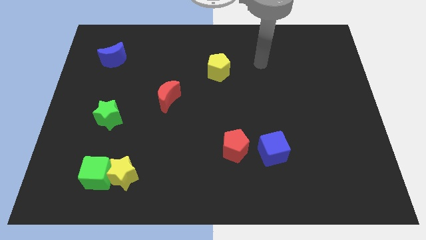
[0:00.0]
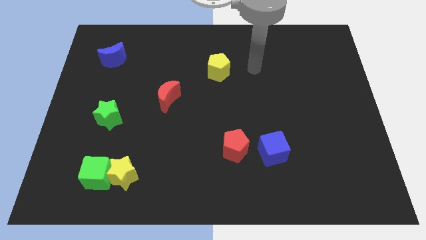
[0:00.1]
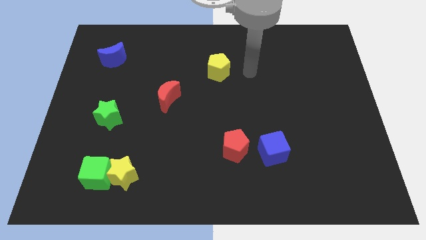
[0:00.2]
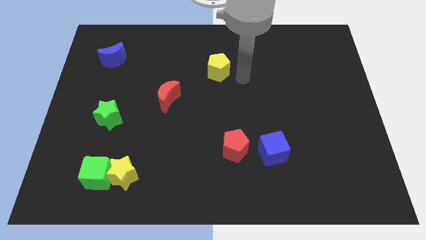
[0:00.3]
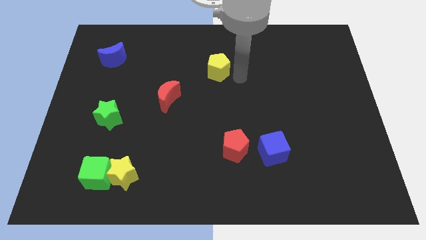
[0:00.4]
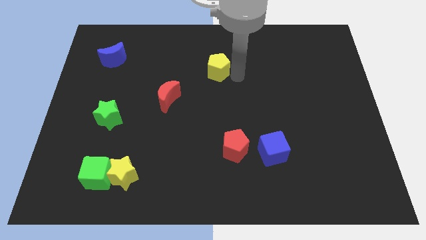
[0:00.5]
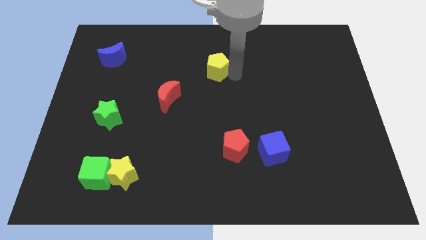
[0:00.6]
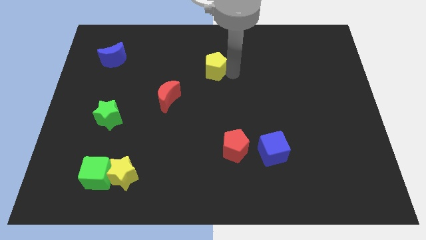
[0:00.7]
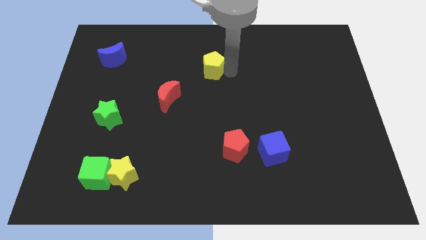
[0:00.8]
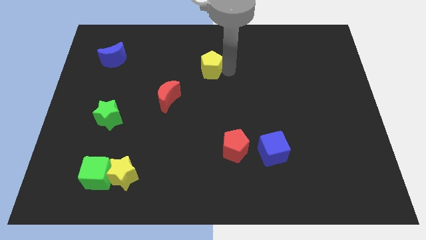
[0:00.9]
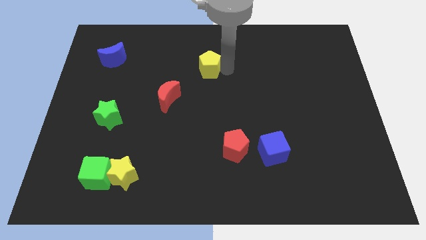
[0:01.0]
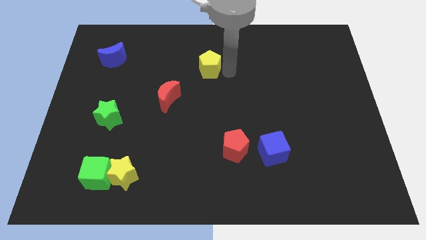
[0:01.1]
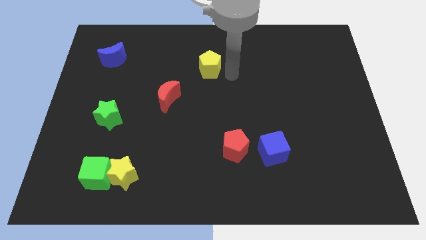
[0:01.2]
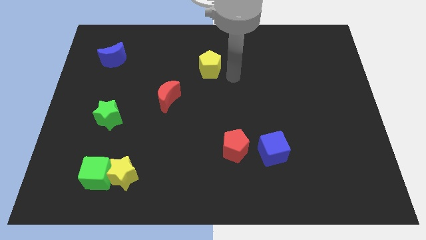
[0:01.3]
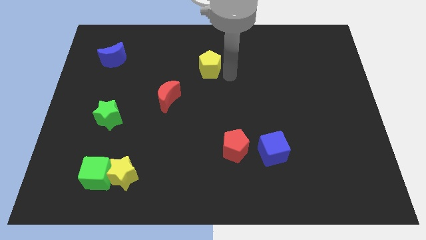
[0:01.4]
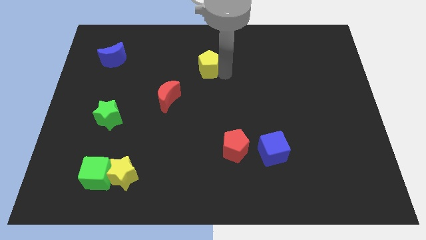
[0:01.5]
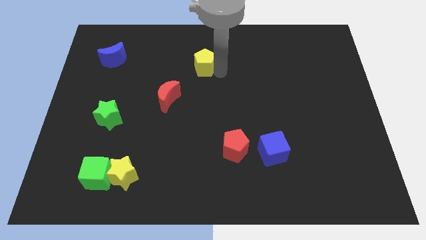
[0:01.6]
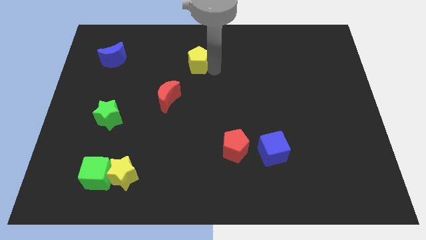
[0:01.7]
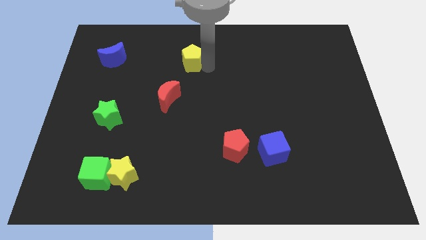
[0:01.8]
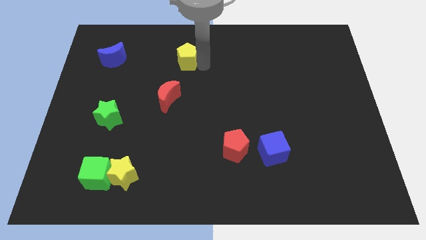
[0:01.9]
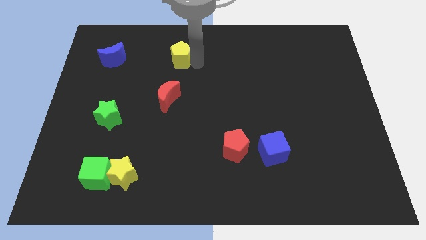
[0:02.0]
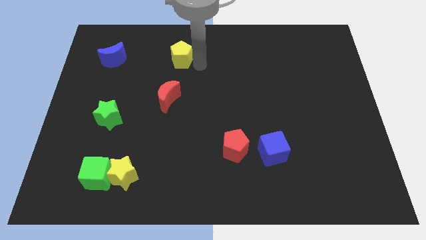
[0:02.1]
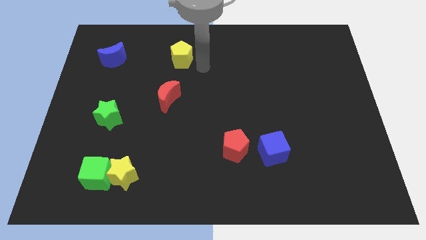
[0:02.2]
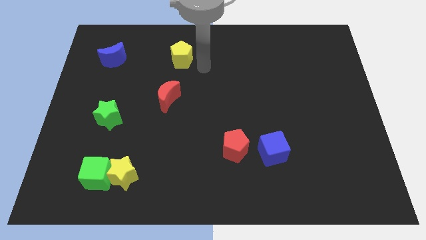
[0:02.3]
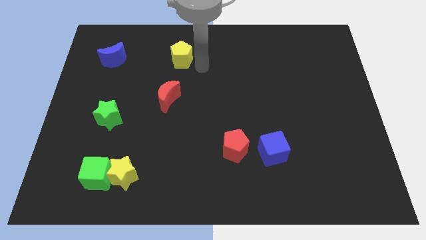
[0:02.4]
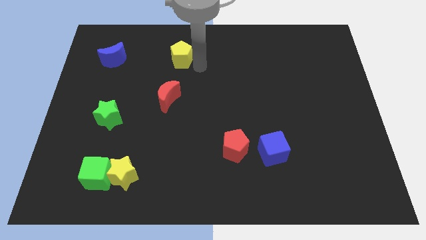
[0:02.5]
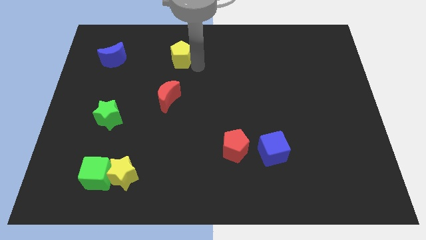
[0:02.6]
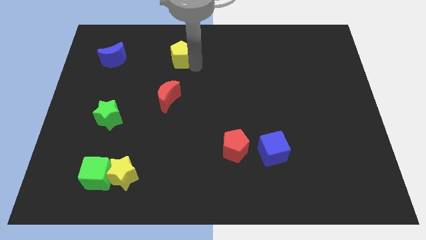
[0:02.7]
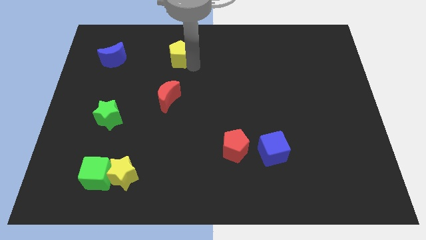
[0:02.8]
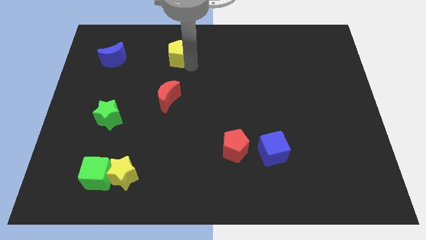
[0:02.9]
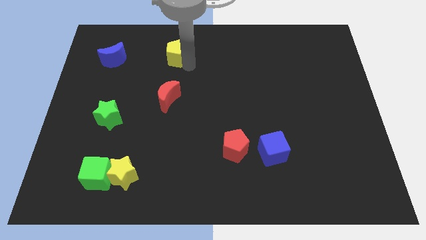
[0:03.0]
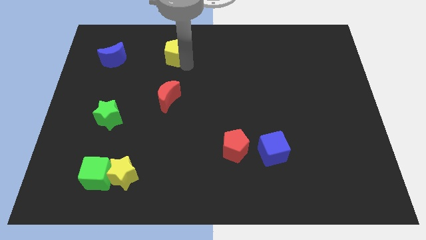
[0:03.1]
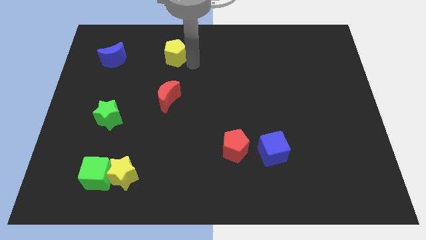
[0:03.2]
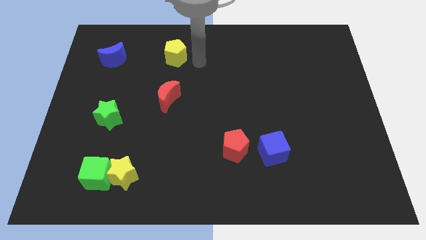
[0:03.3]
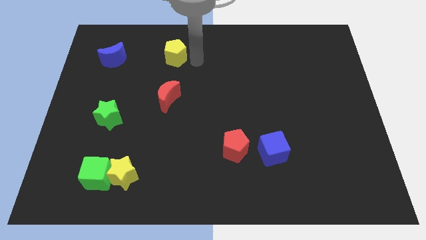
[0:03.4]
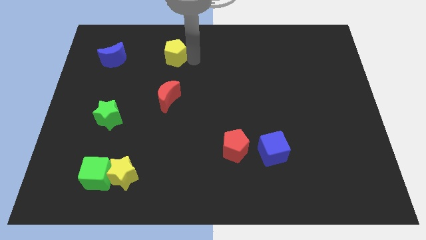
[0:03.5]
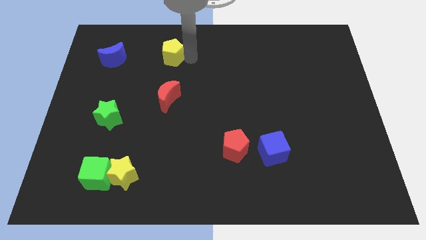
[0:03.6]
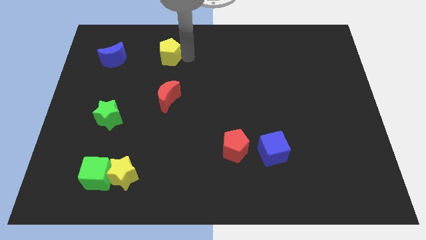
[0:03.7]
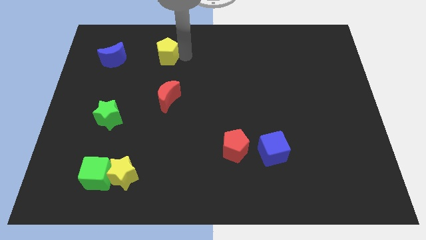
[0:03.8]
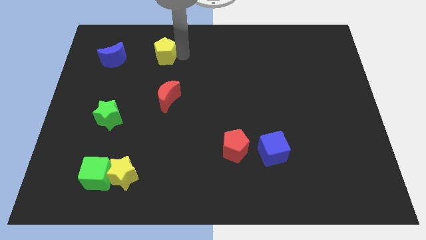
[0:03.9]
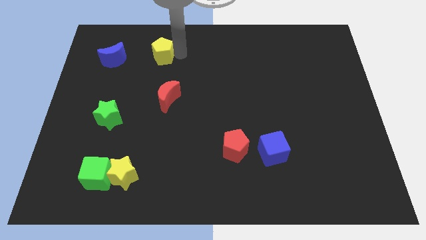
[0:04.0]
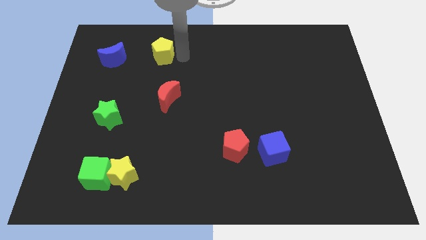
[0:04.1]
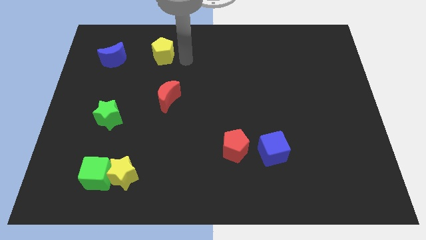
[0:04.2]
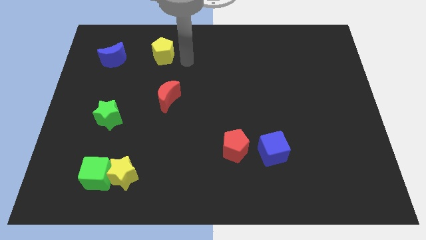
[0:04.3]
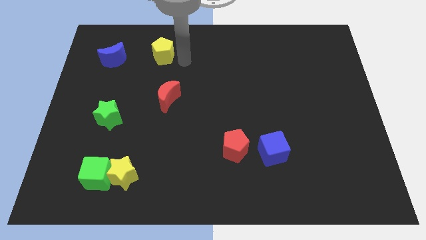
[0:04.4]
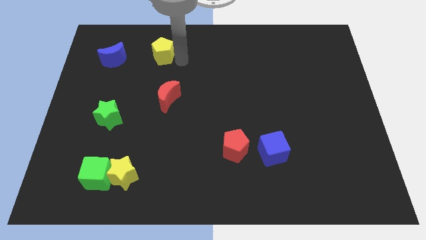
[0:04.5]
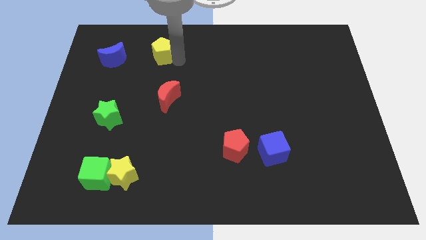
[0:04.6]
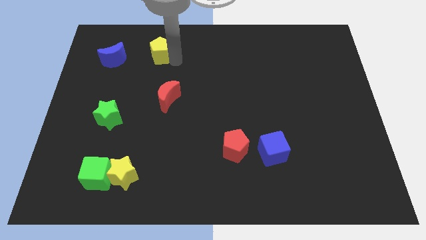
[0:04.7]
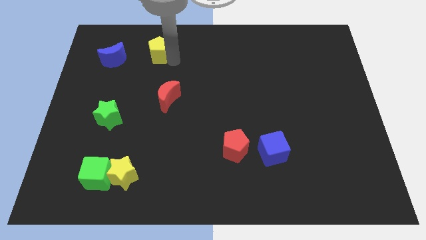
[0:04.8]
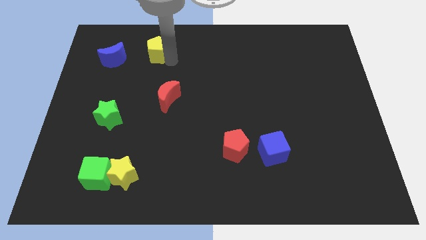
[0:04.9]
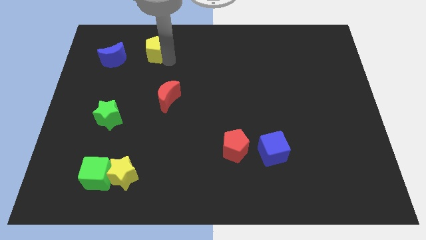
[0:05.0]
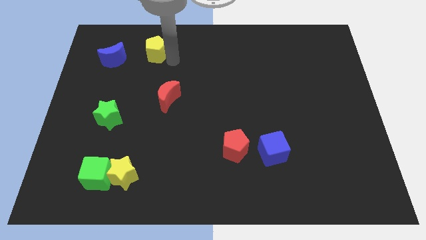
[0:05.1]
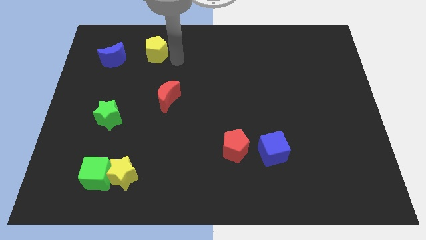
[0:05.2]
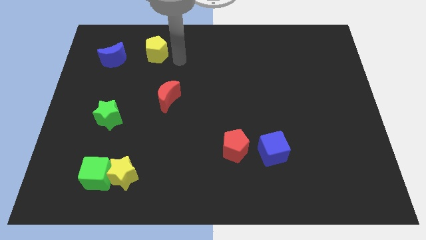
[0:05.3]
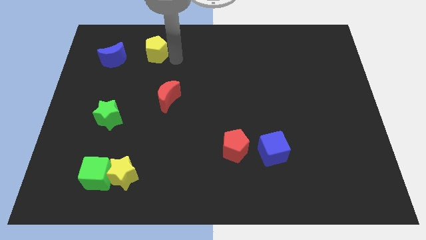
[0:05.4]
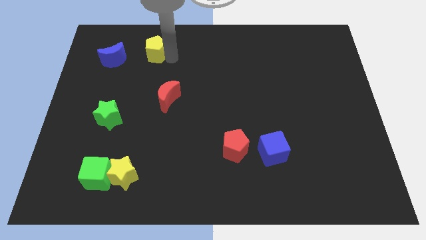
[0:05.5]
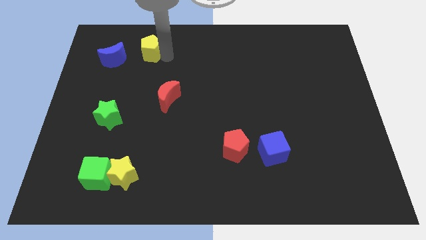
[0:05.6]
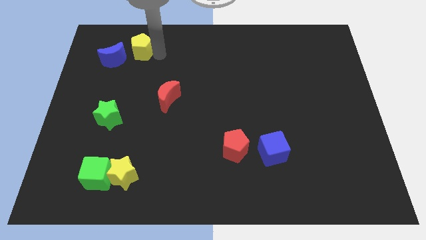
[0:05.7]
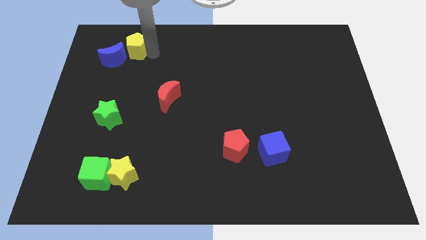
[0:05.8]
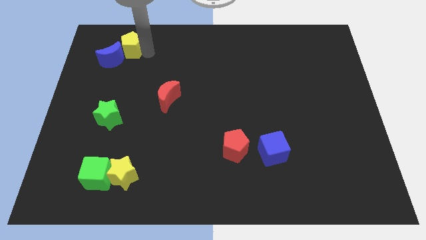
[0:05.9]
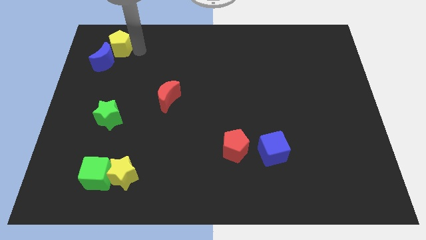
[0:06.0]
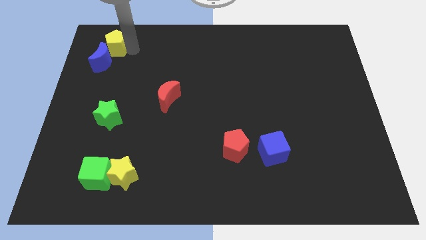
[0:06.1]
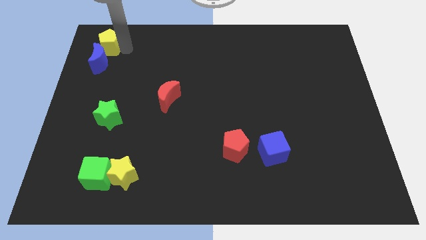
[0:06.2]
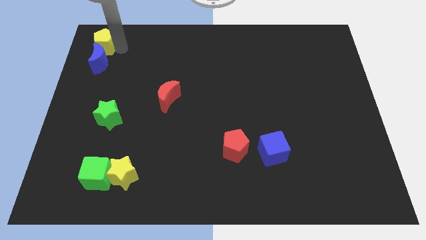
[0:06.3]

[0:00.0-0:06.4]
slide the yellow pentagon to the top left of the board

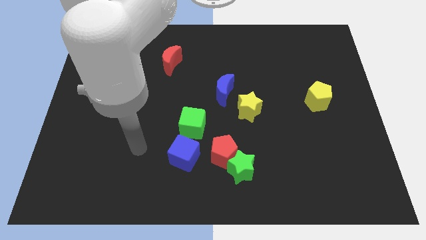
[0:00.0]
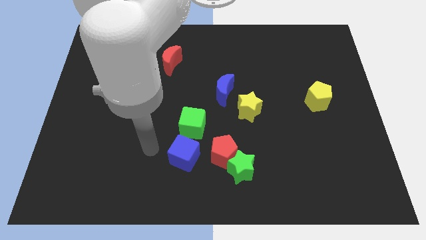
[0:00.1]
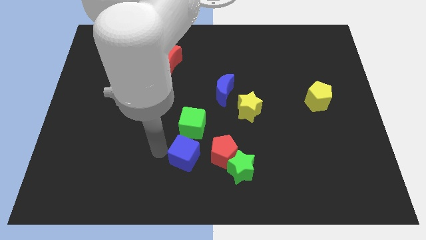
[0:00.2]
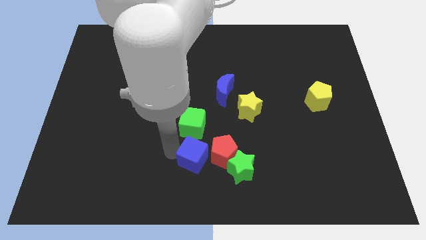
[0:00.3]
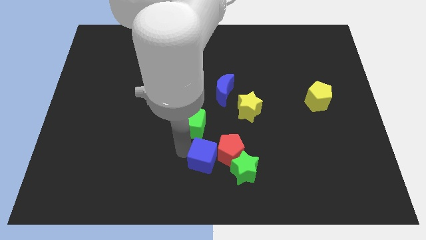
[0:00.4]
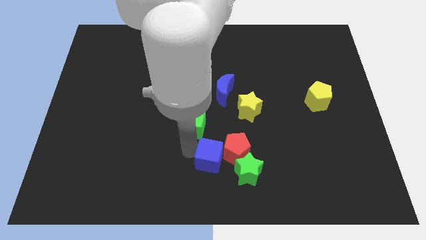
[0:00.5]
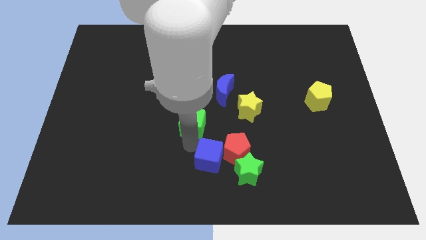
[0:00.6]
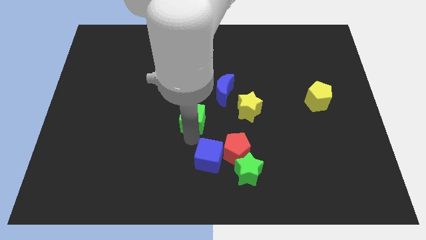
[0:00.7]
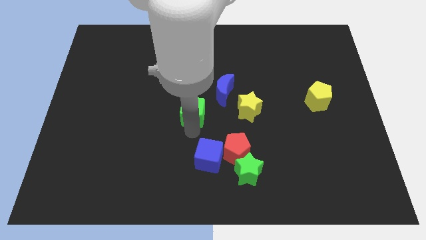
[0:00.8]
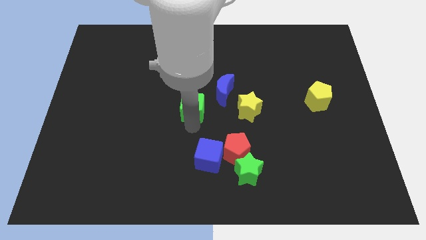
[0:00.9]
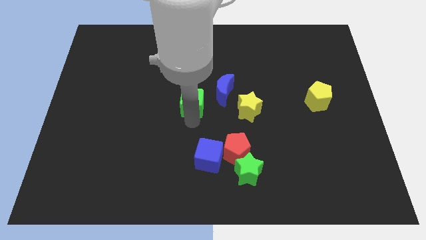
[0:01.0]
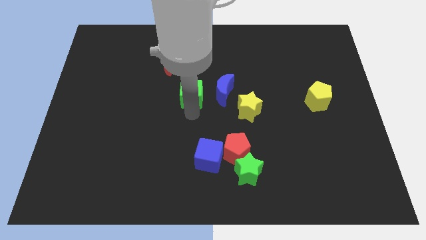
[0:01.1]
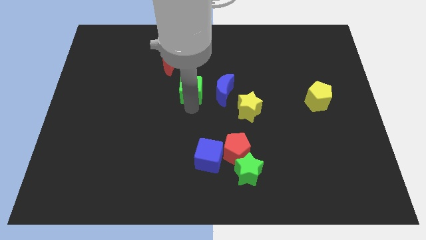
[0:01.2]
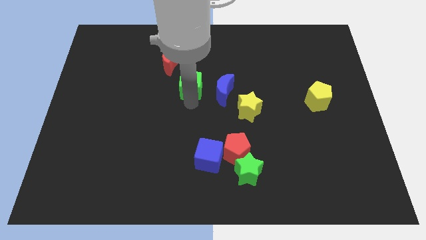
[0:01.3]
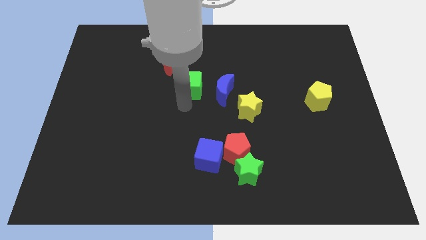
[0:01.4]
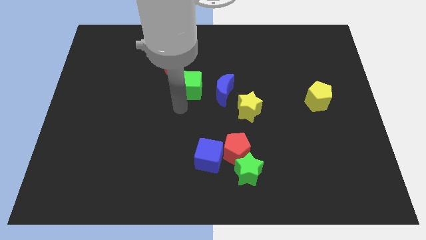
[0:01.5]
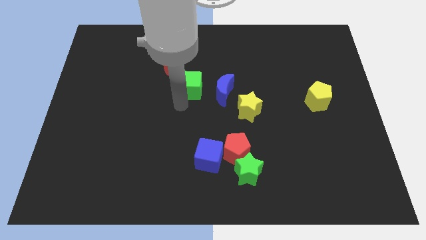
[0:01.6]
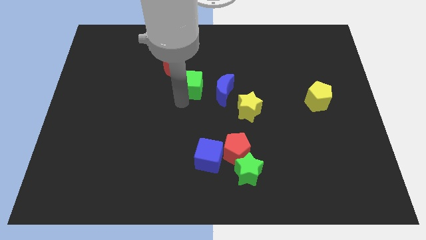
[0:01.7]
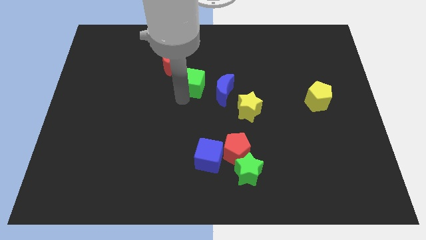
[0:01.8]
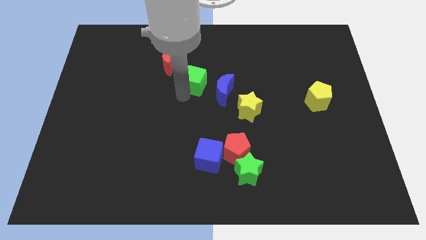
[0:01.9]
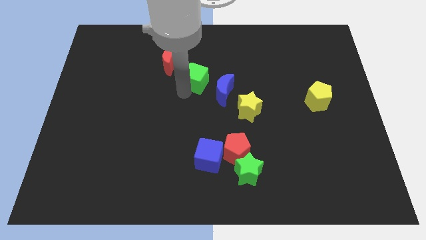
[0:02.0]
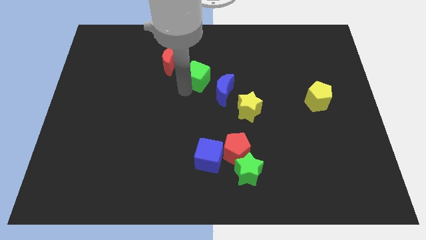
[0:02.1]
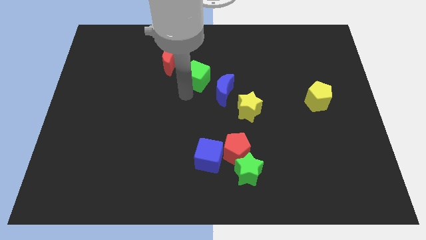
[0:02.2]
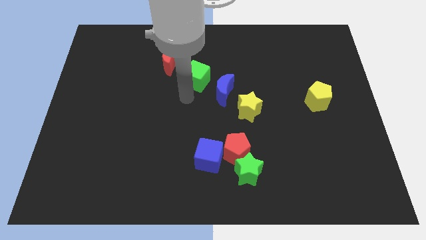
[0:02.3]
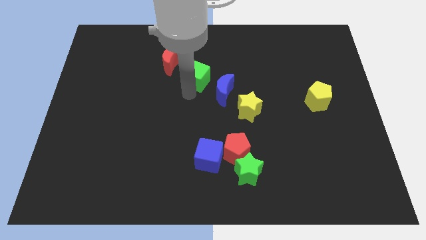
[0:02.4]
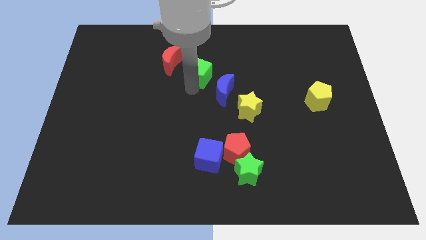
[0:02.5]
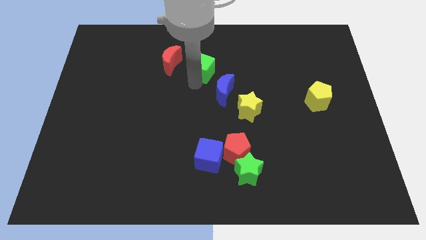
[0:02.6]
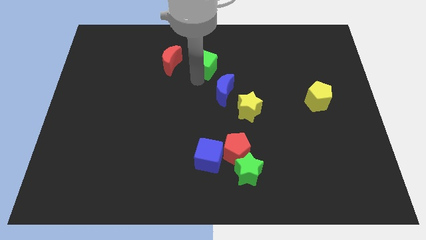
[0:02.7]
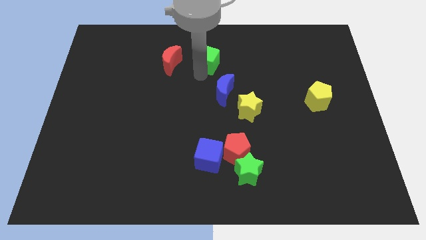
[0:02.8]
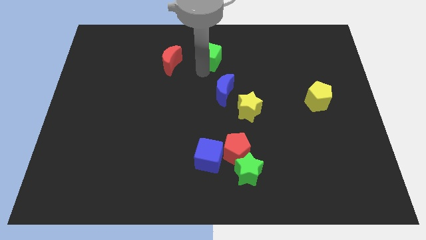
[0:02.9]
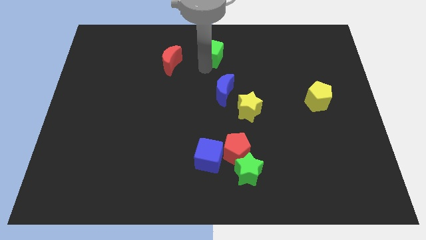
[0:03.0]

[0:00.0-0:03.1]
move the green cube to the top side
